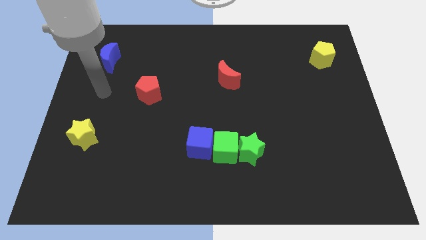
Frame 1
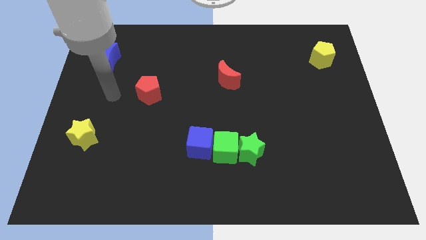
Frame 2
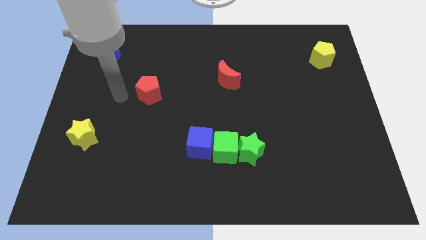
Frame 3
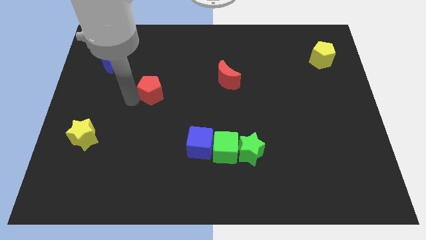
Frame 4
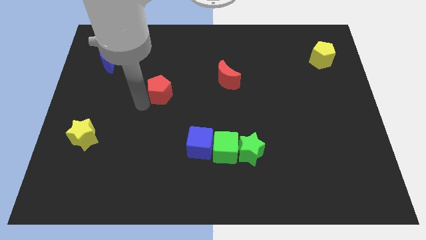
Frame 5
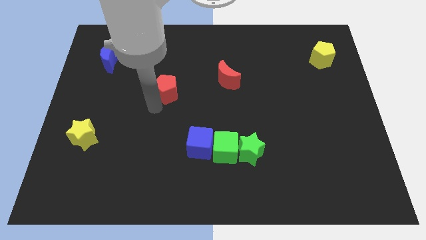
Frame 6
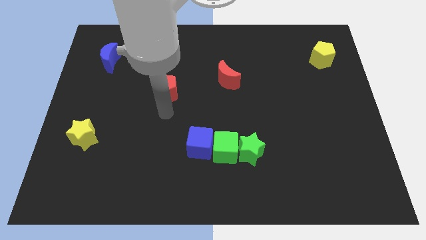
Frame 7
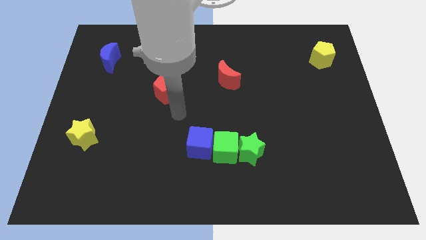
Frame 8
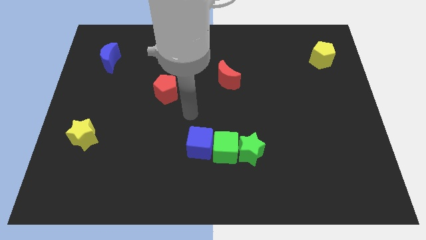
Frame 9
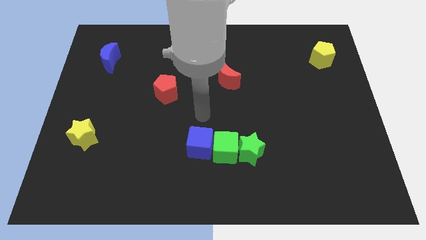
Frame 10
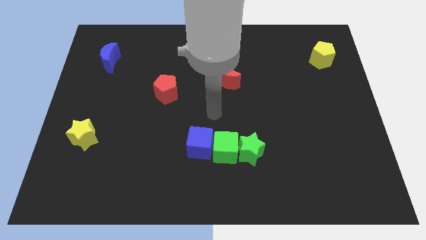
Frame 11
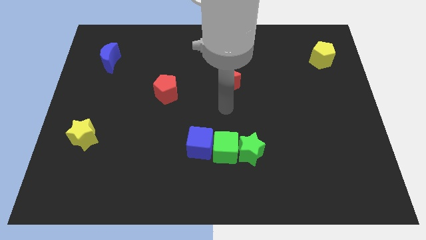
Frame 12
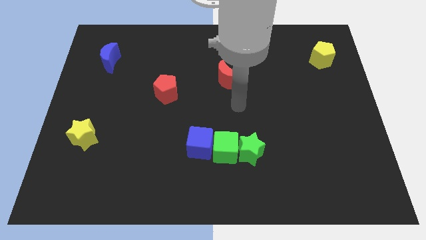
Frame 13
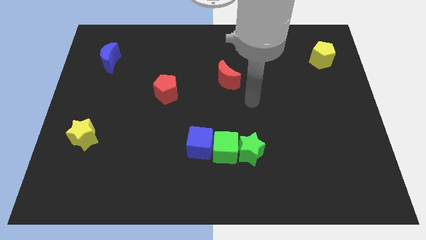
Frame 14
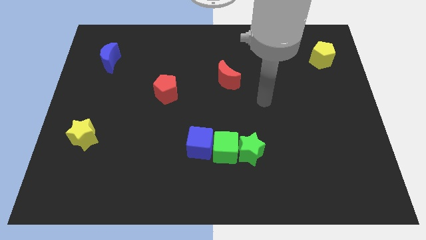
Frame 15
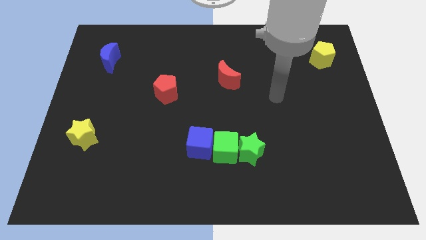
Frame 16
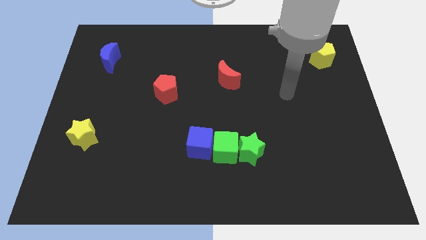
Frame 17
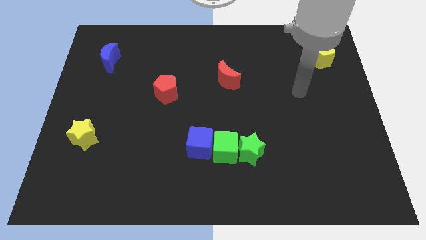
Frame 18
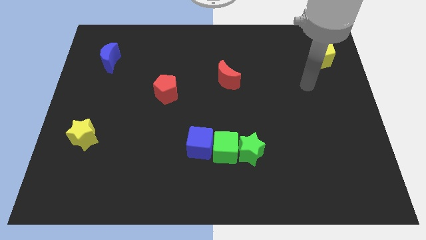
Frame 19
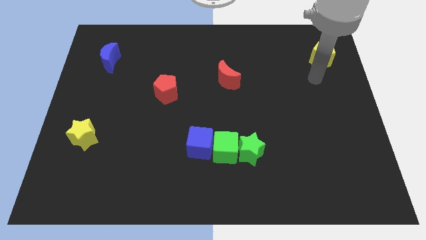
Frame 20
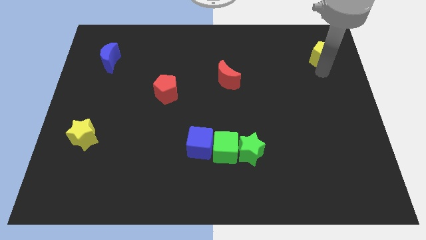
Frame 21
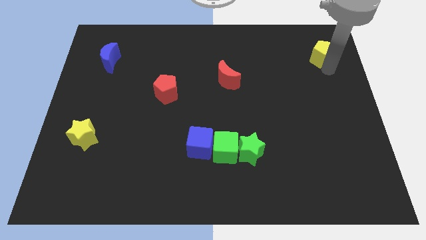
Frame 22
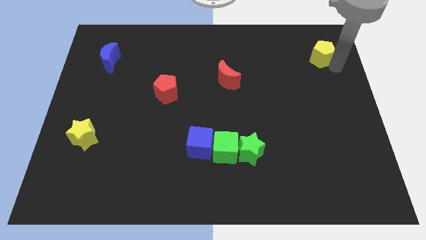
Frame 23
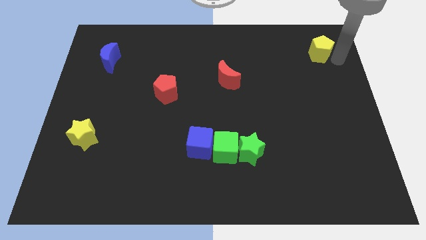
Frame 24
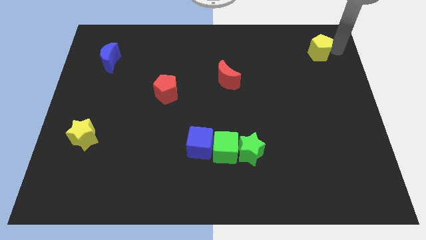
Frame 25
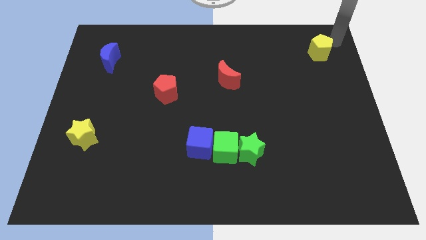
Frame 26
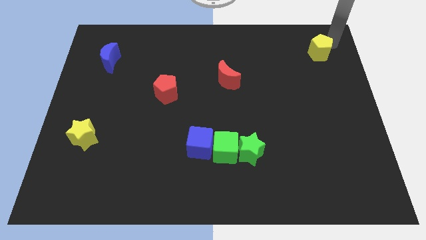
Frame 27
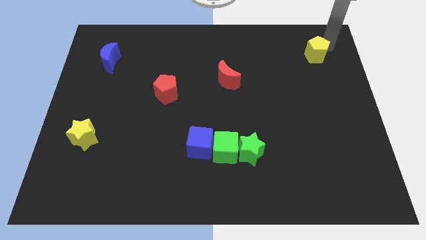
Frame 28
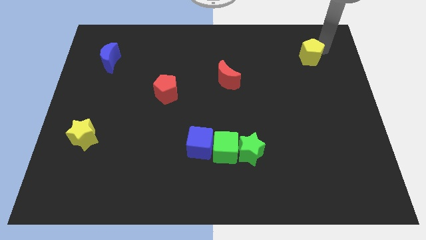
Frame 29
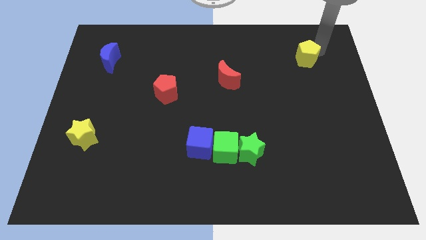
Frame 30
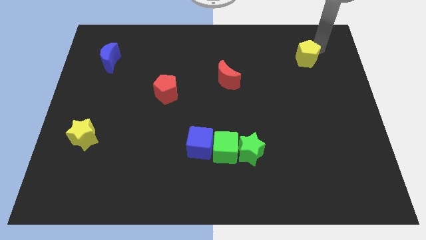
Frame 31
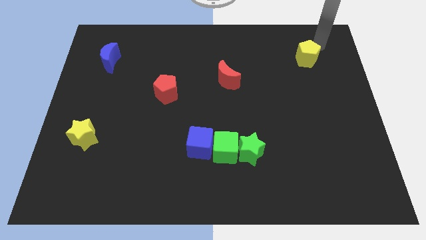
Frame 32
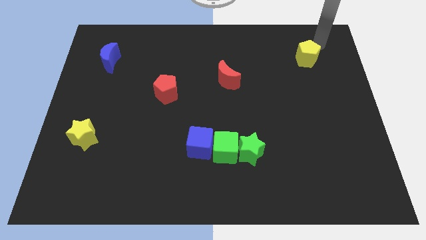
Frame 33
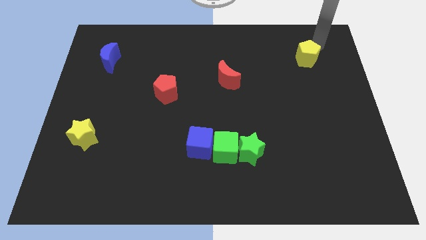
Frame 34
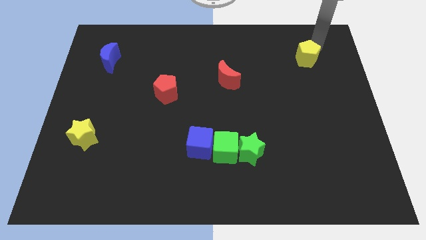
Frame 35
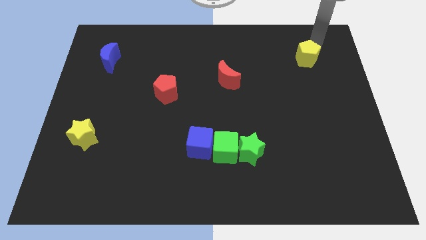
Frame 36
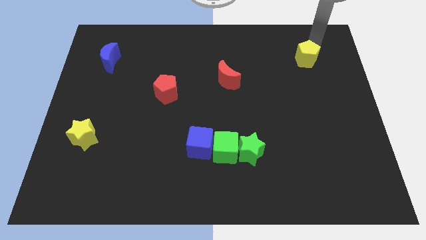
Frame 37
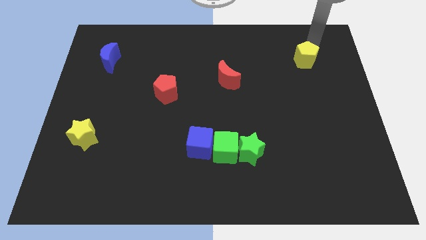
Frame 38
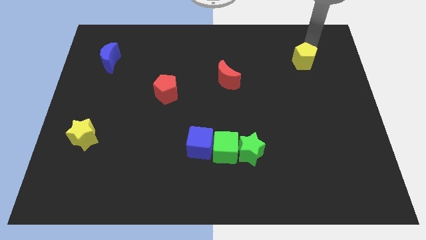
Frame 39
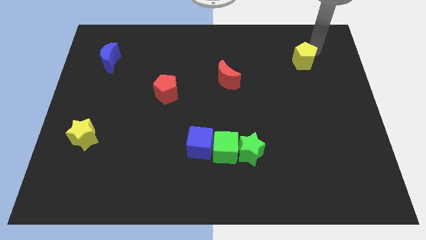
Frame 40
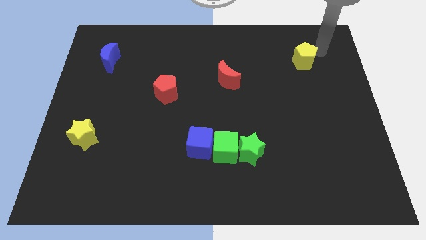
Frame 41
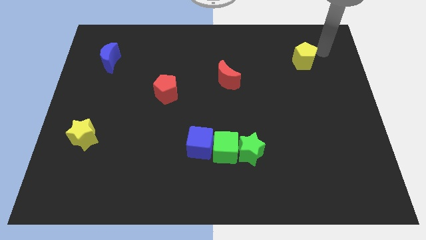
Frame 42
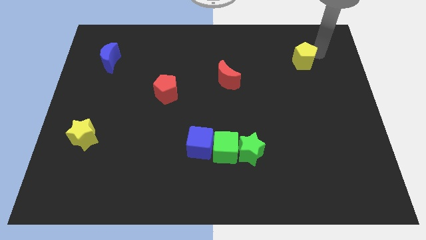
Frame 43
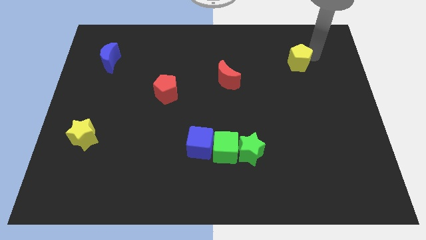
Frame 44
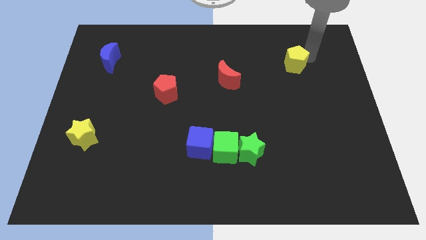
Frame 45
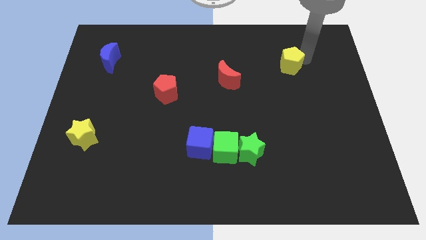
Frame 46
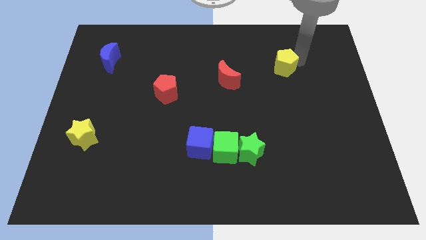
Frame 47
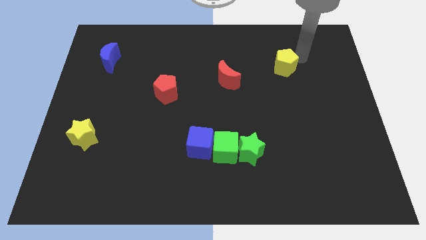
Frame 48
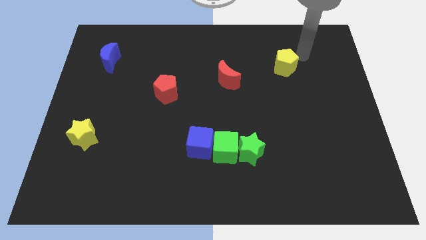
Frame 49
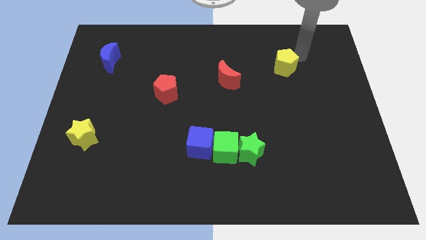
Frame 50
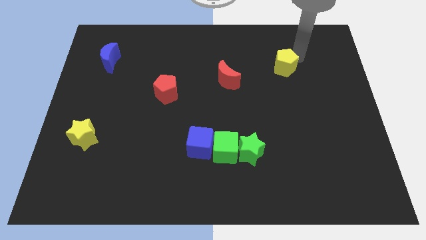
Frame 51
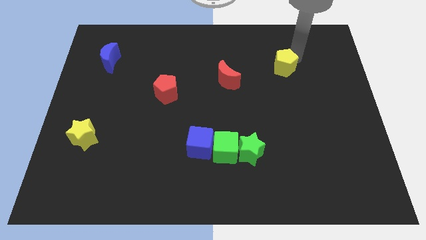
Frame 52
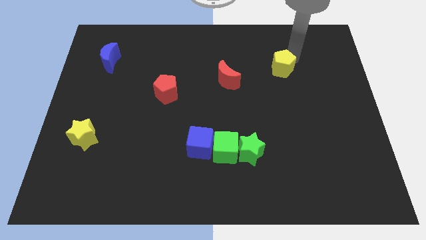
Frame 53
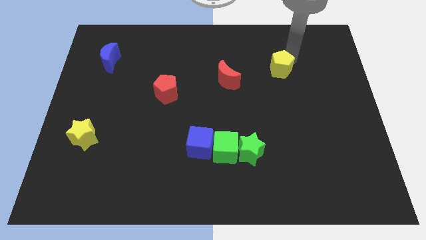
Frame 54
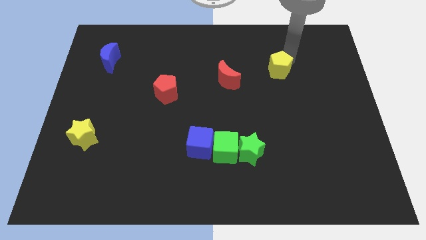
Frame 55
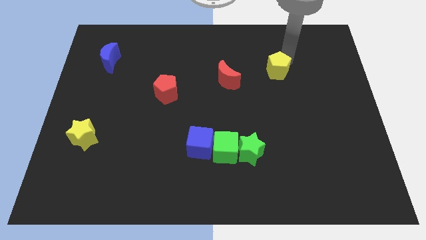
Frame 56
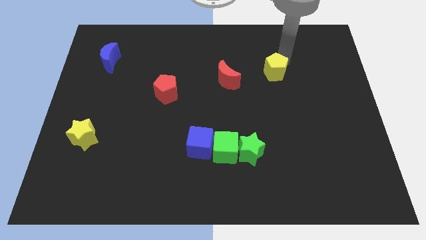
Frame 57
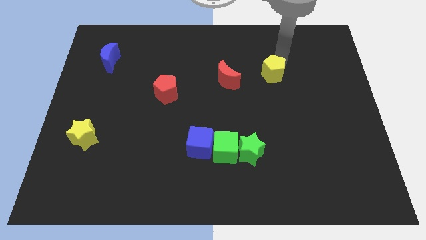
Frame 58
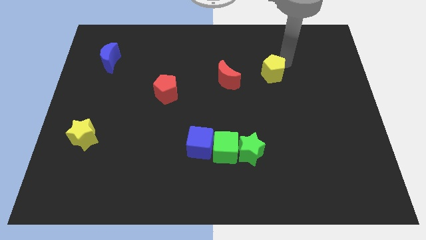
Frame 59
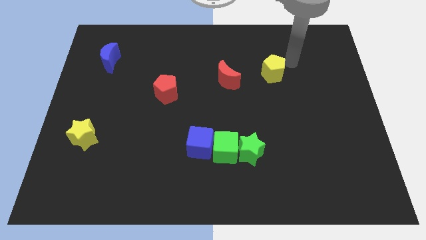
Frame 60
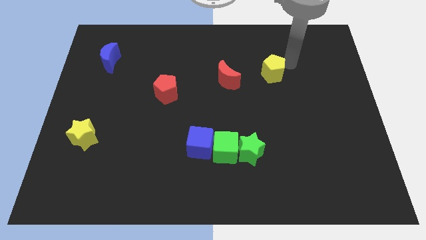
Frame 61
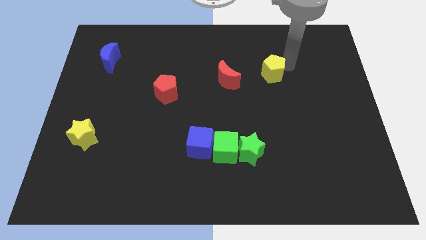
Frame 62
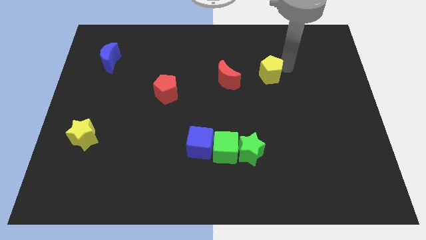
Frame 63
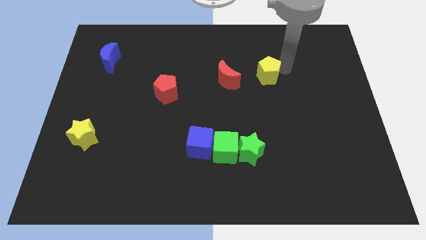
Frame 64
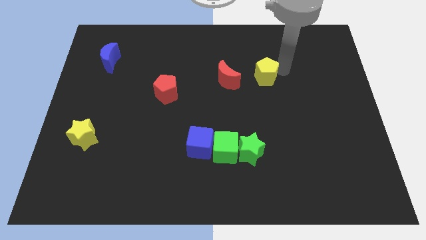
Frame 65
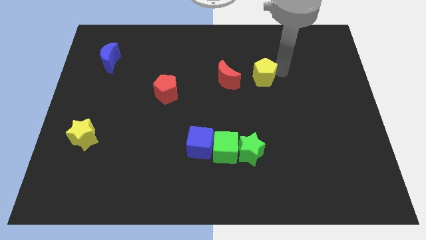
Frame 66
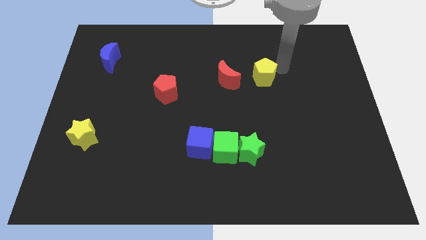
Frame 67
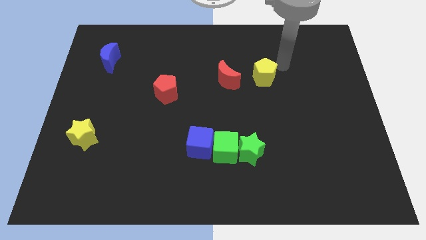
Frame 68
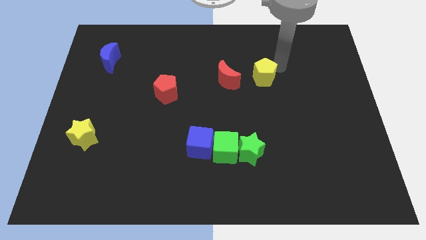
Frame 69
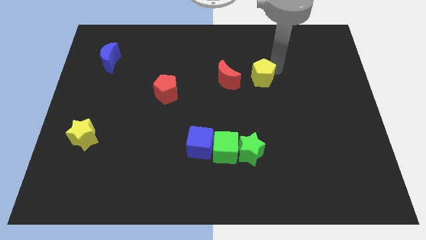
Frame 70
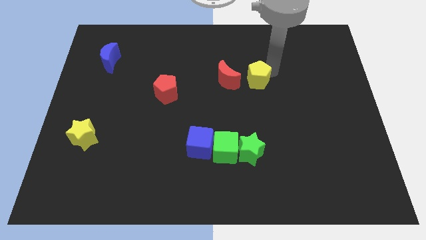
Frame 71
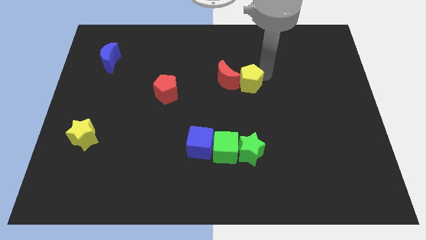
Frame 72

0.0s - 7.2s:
put the yellow pentagon to the center of the board
